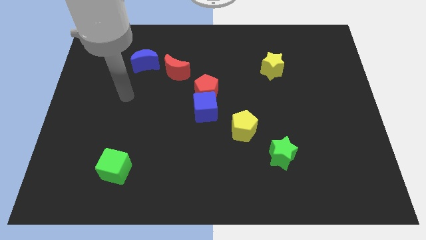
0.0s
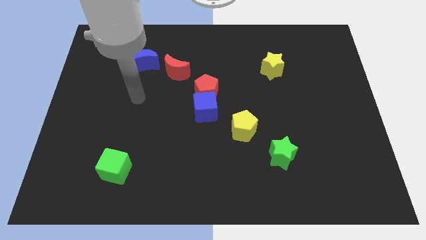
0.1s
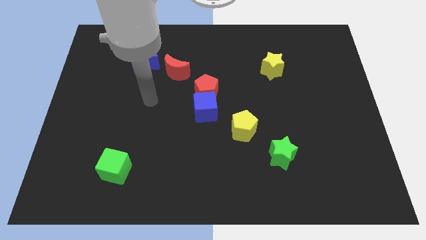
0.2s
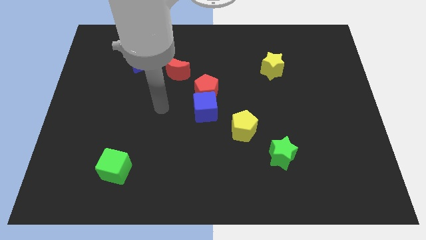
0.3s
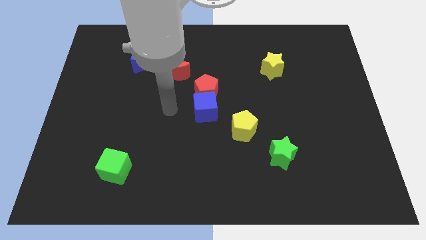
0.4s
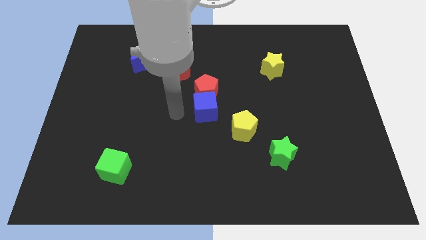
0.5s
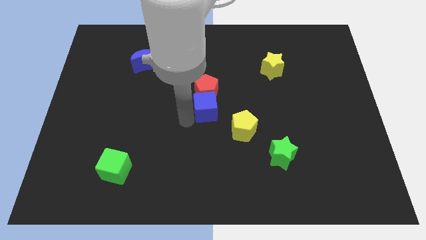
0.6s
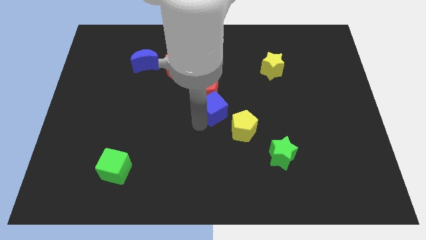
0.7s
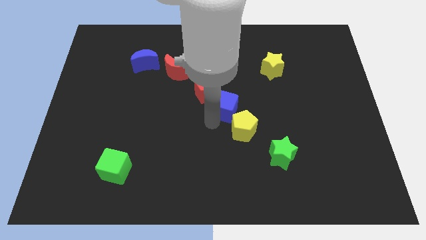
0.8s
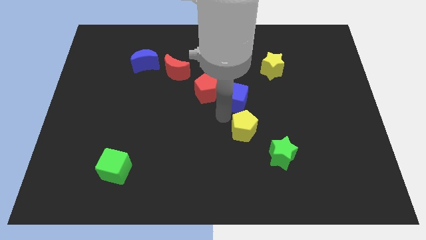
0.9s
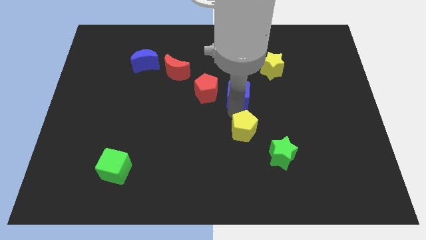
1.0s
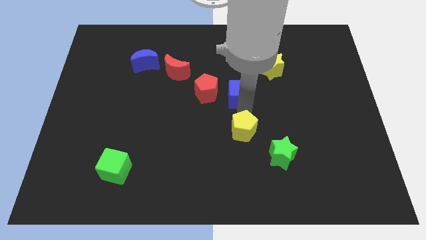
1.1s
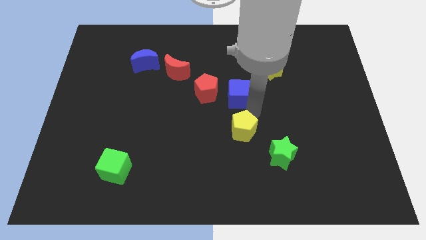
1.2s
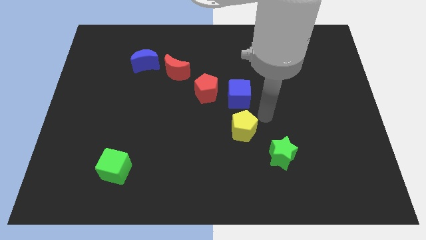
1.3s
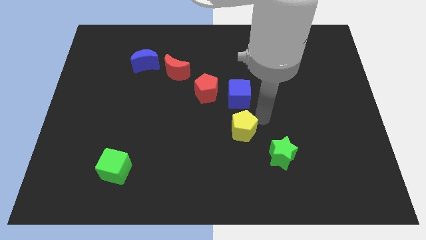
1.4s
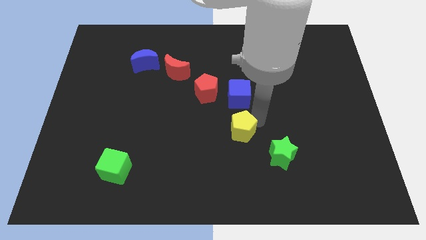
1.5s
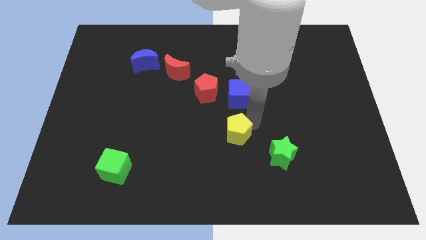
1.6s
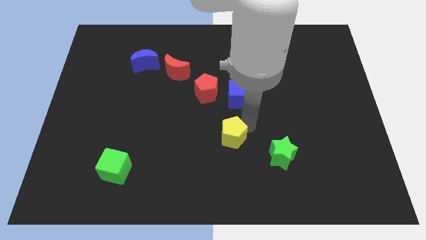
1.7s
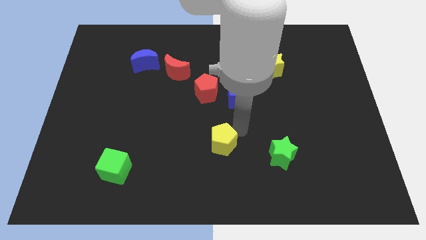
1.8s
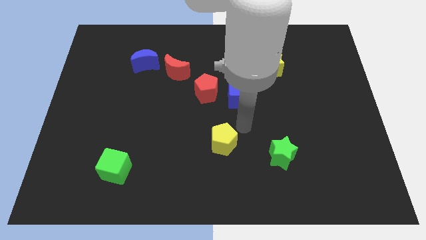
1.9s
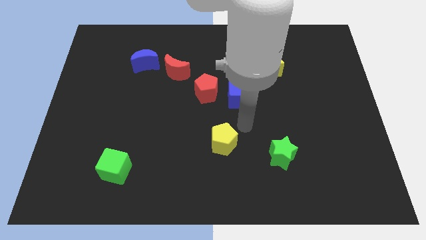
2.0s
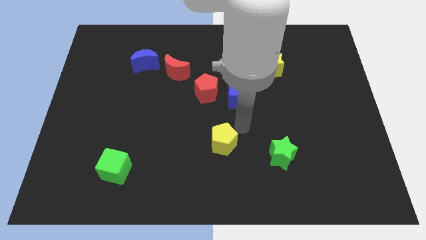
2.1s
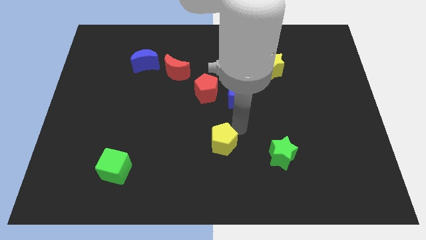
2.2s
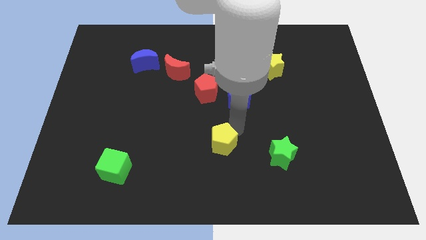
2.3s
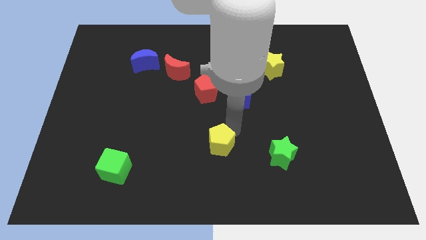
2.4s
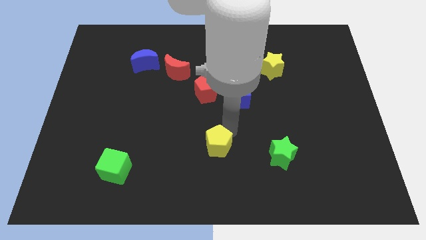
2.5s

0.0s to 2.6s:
slide the yellow pentagon a bit down and left

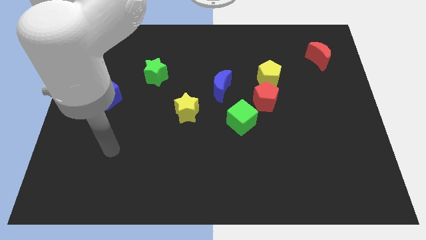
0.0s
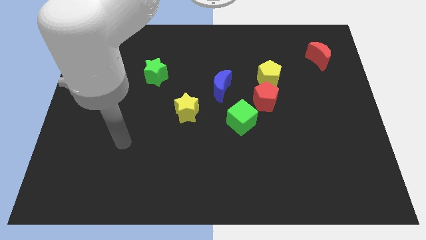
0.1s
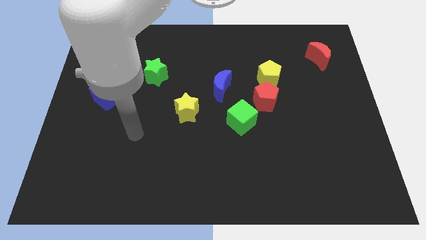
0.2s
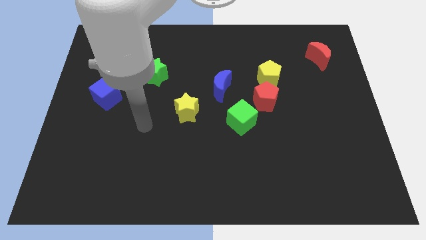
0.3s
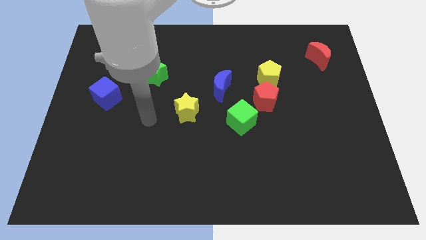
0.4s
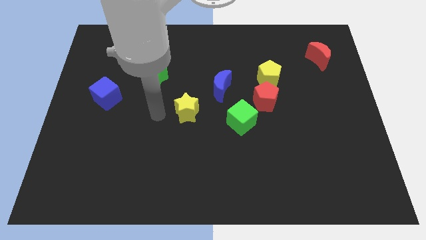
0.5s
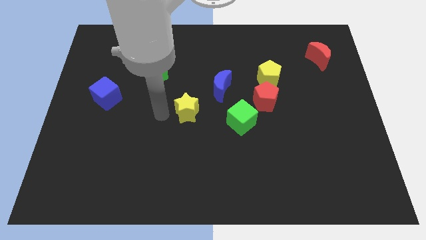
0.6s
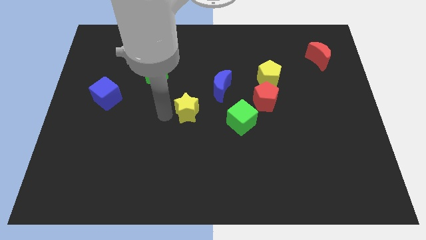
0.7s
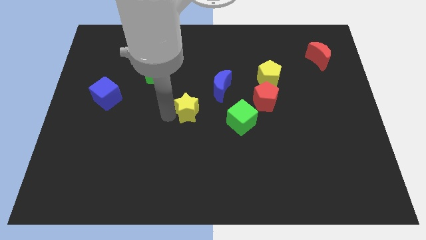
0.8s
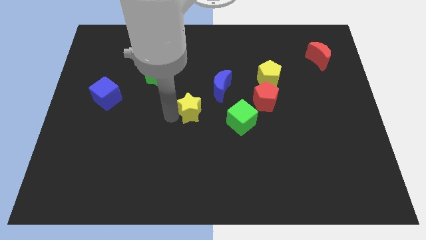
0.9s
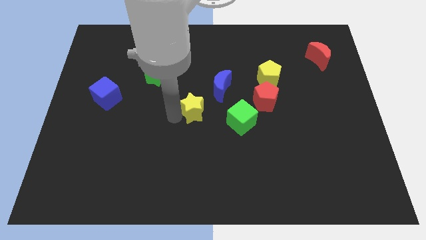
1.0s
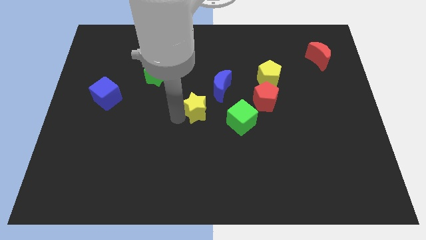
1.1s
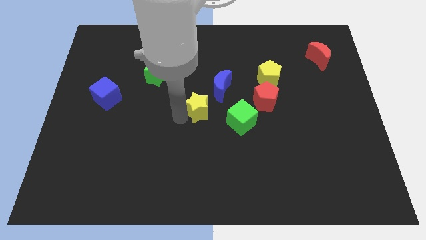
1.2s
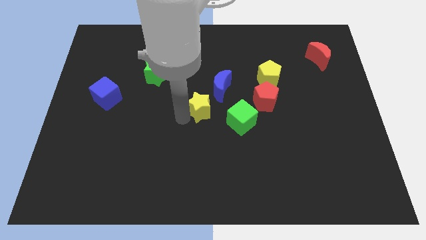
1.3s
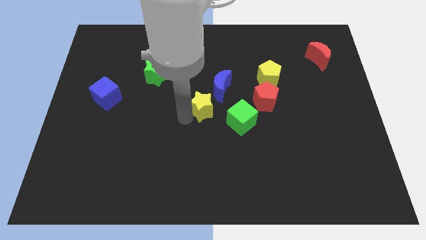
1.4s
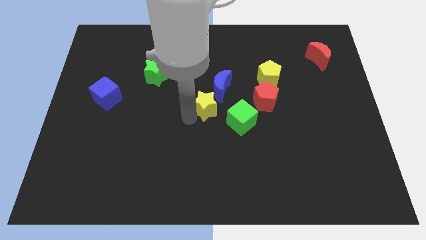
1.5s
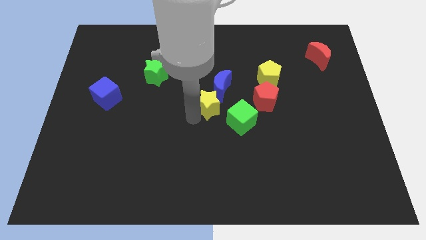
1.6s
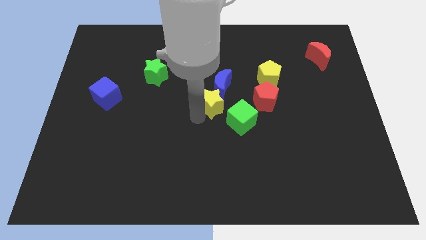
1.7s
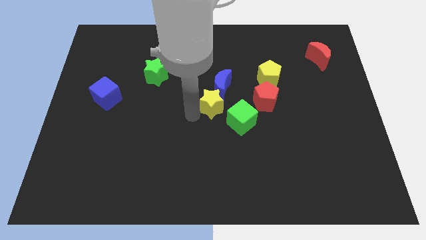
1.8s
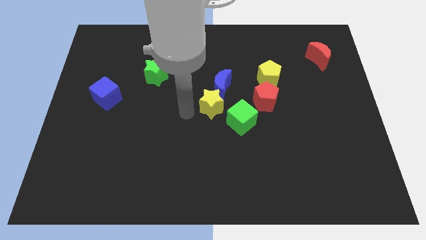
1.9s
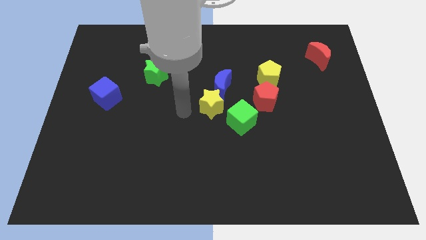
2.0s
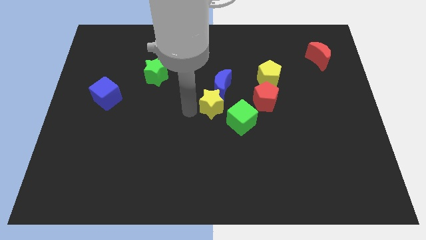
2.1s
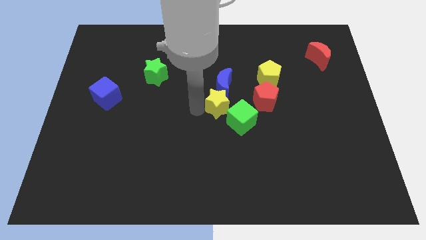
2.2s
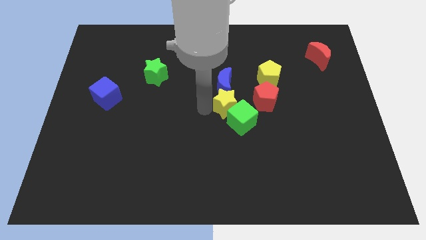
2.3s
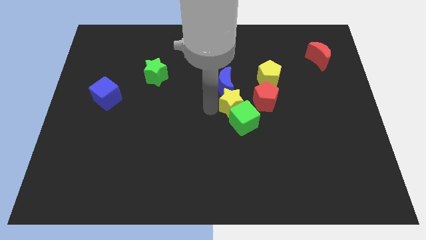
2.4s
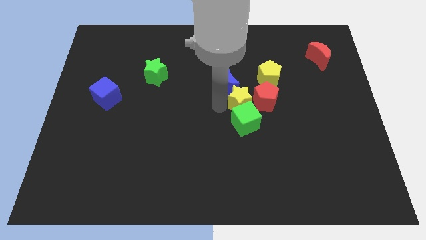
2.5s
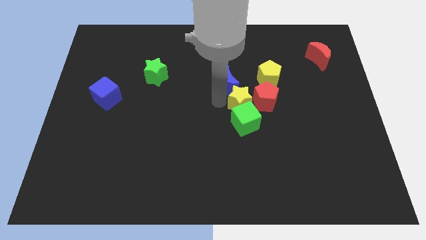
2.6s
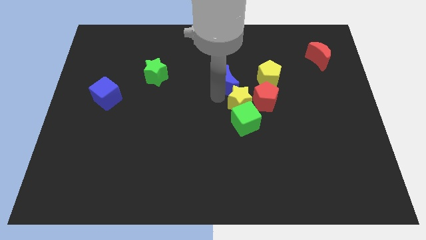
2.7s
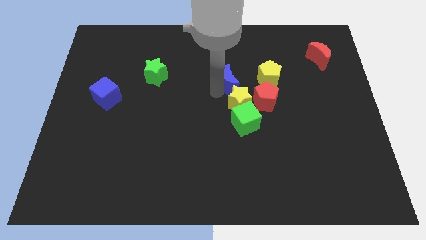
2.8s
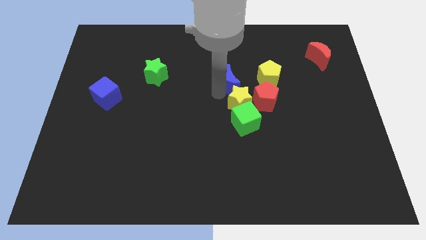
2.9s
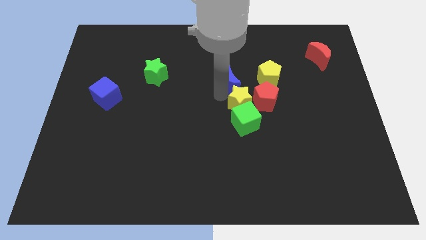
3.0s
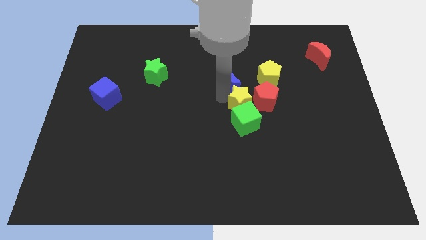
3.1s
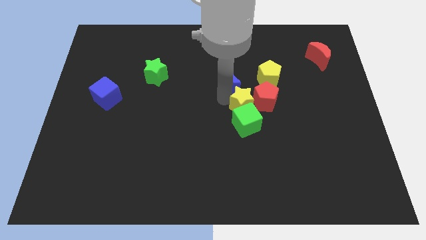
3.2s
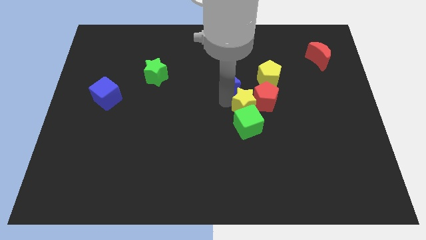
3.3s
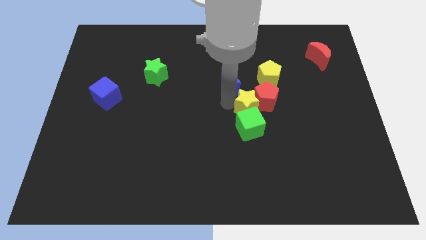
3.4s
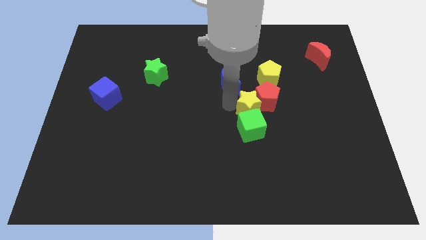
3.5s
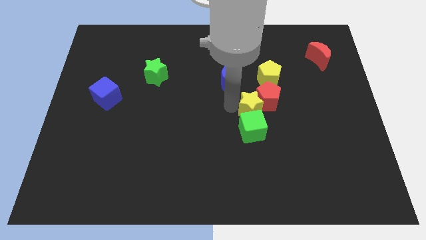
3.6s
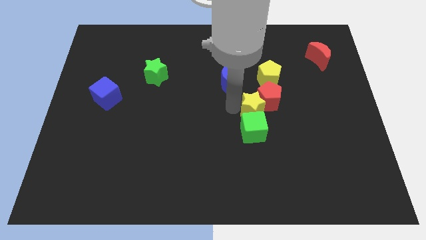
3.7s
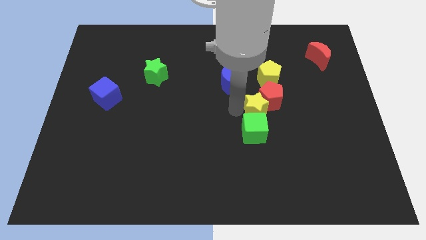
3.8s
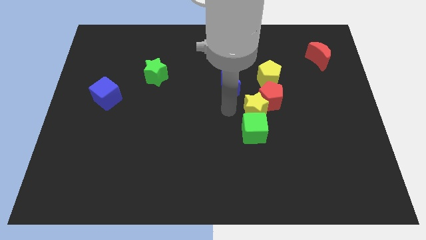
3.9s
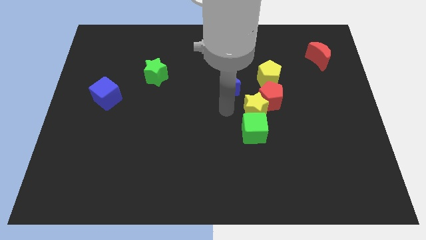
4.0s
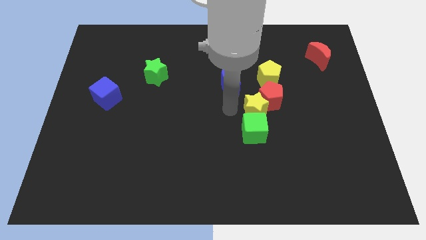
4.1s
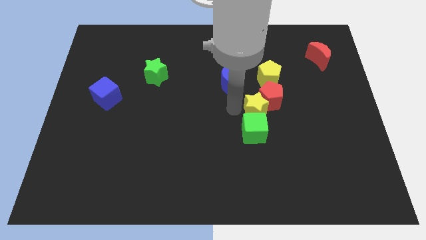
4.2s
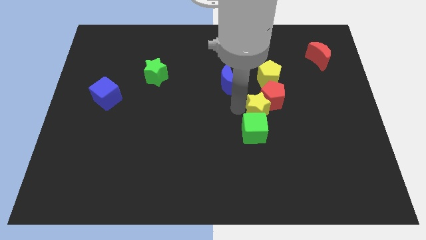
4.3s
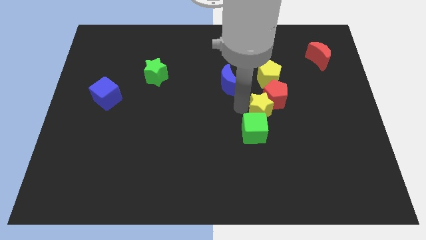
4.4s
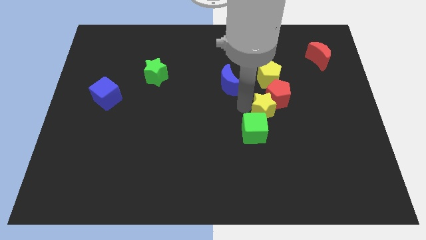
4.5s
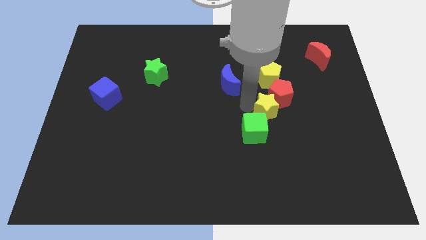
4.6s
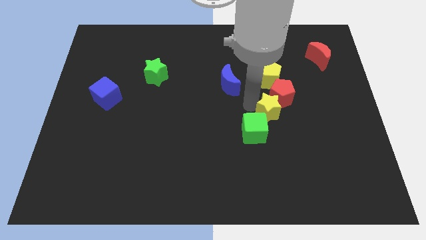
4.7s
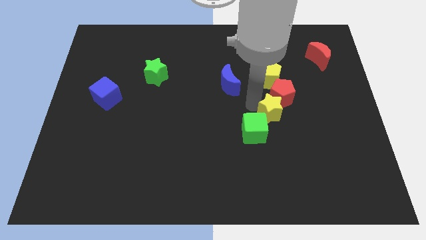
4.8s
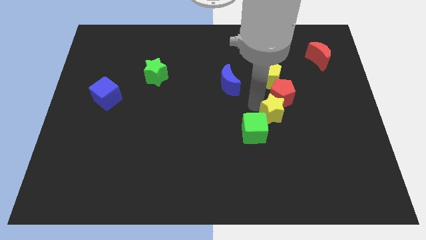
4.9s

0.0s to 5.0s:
push the yellow star to the right

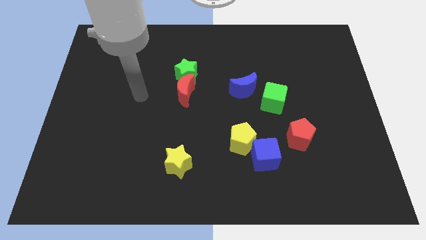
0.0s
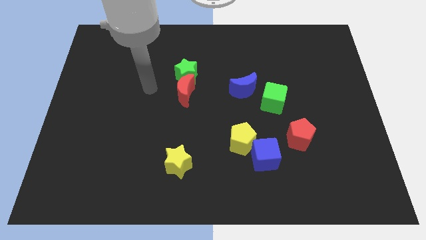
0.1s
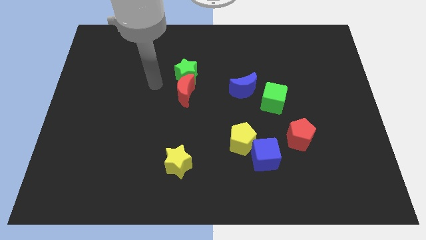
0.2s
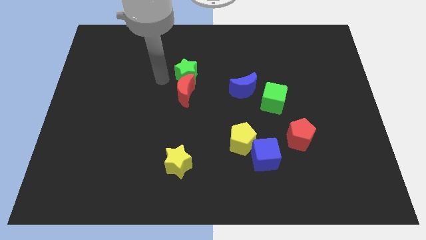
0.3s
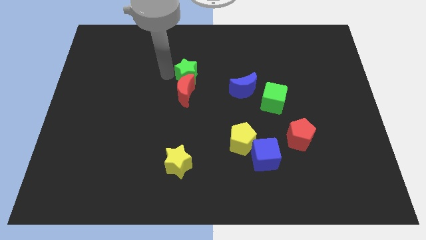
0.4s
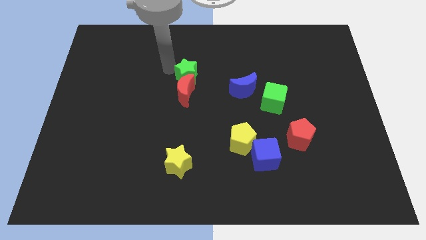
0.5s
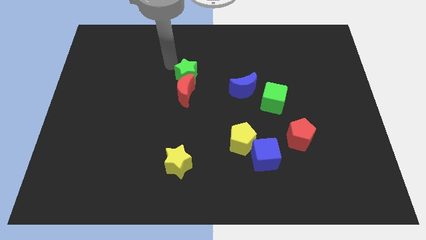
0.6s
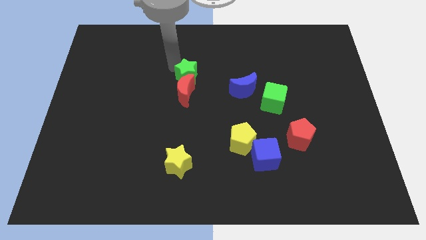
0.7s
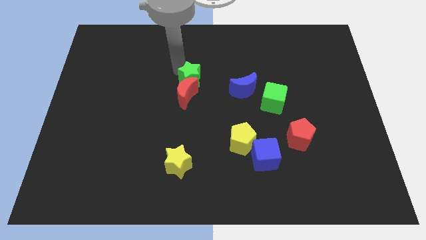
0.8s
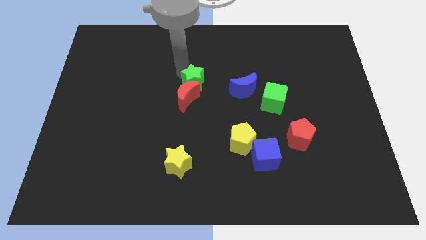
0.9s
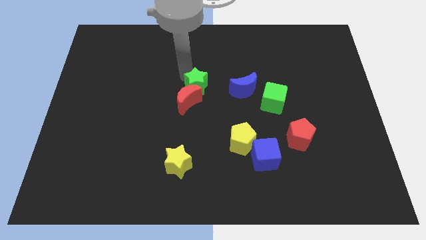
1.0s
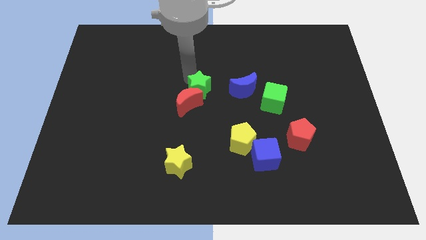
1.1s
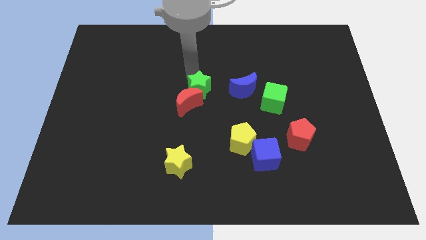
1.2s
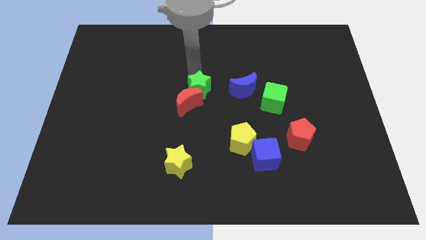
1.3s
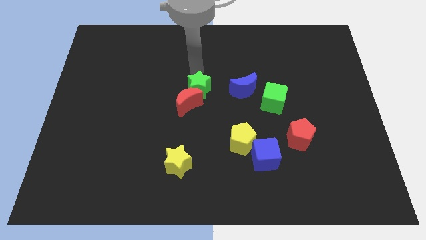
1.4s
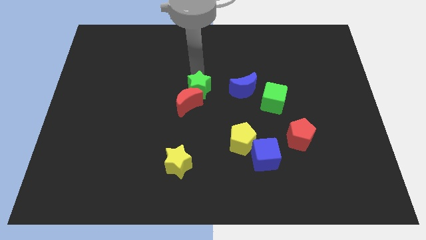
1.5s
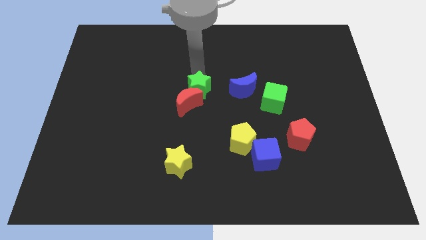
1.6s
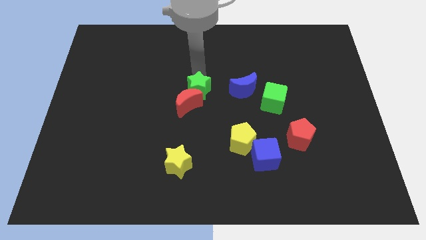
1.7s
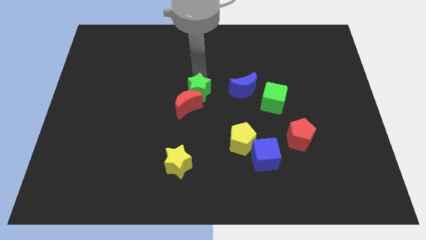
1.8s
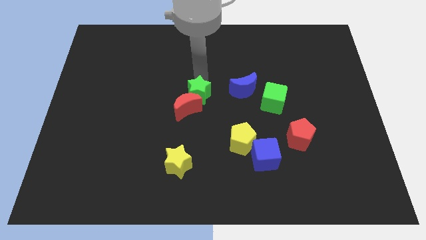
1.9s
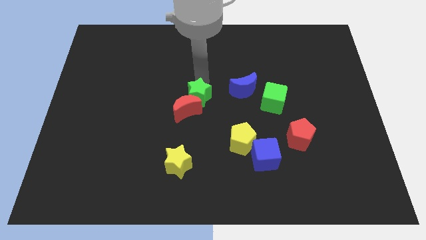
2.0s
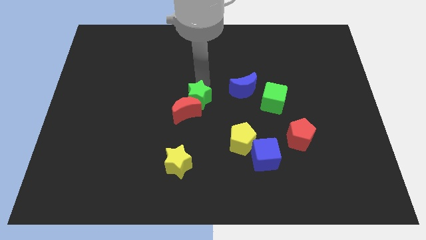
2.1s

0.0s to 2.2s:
slide the green star down a little bit
